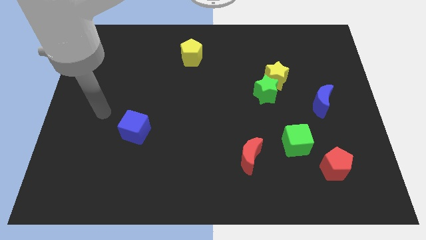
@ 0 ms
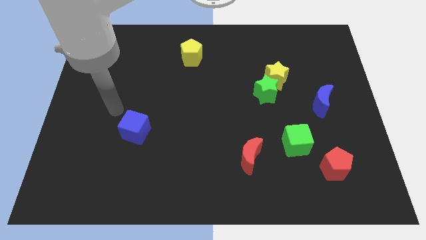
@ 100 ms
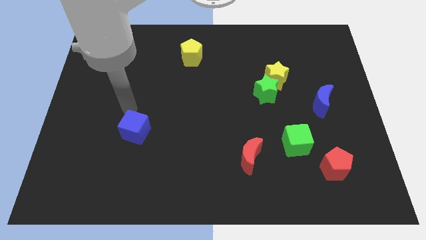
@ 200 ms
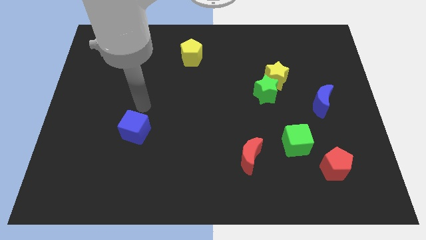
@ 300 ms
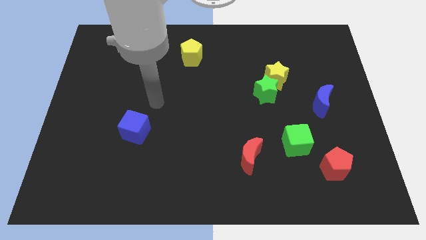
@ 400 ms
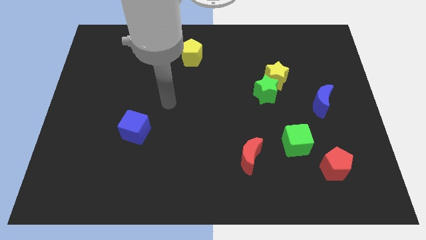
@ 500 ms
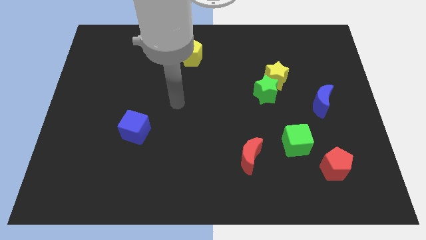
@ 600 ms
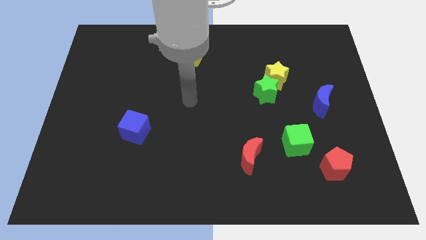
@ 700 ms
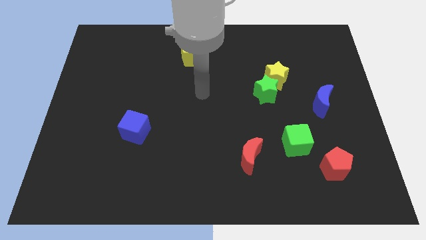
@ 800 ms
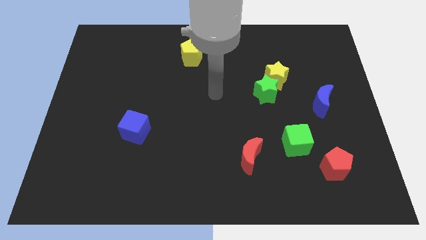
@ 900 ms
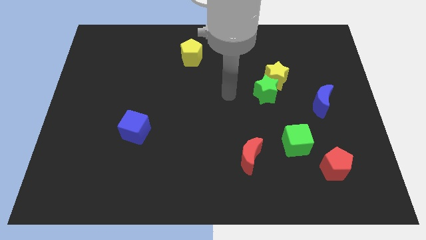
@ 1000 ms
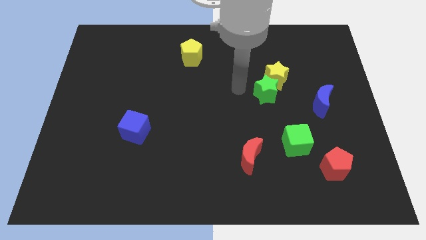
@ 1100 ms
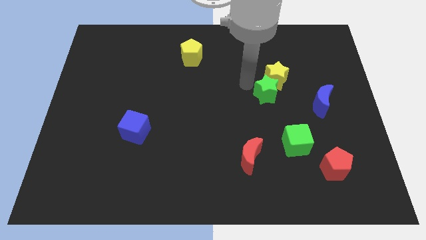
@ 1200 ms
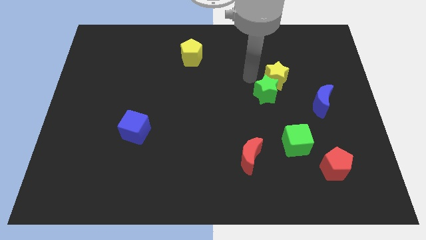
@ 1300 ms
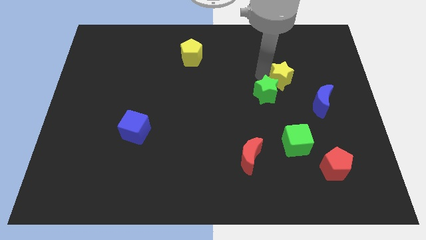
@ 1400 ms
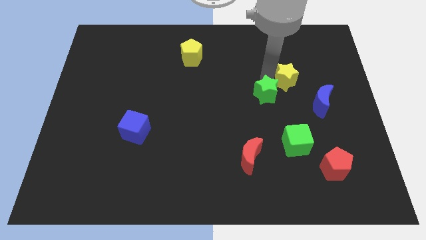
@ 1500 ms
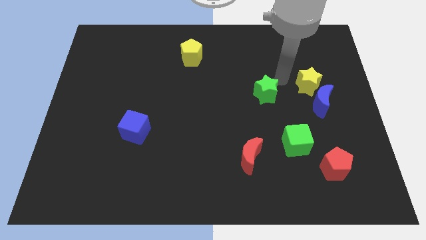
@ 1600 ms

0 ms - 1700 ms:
separate the green star from the yellow star

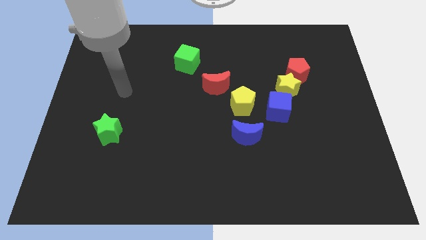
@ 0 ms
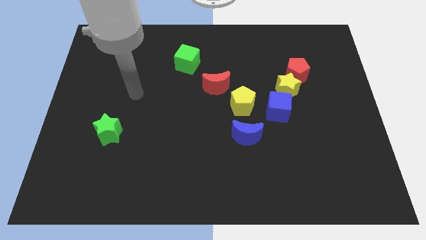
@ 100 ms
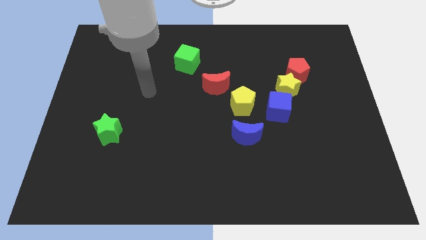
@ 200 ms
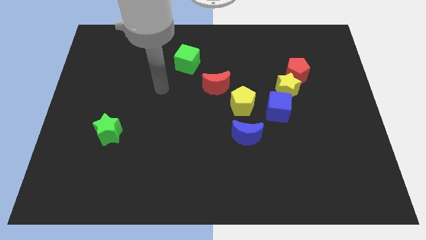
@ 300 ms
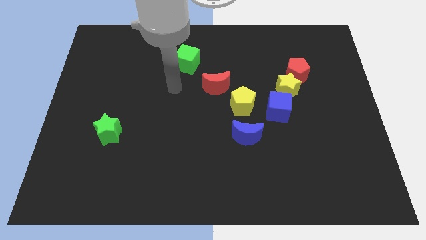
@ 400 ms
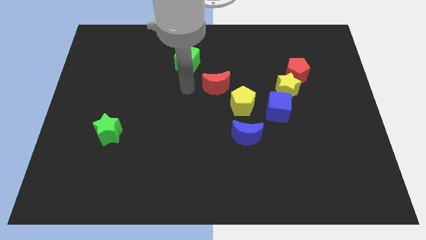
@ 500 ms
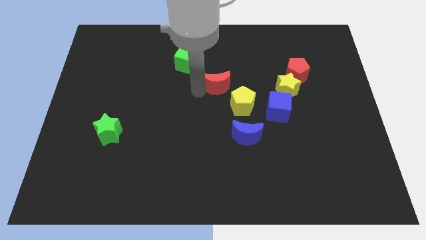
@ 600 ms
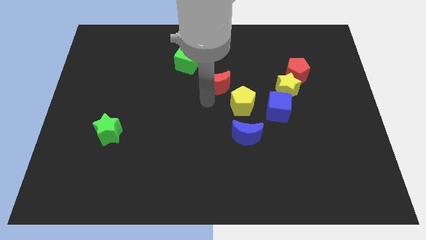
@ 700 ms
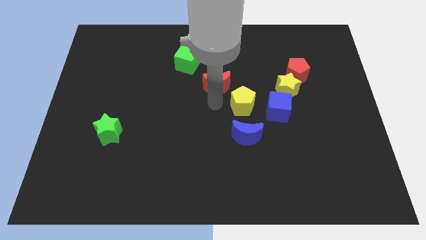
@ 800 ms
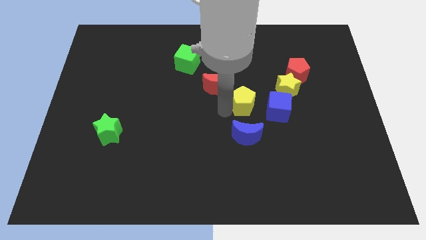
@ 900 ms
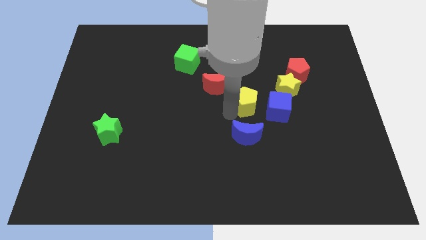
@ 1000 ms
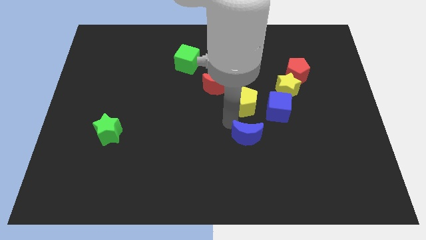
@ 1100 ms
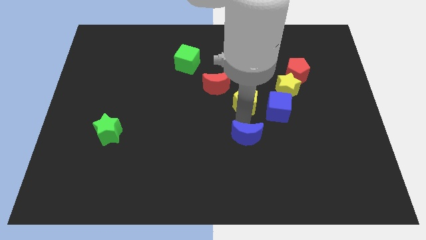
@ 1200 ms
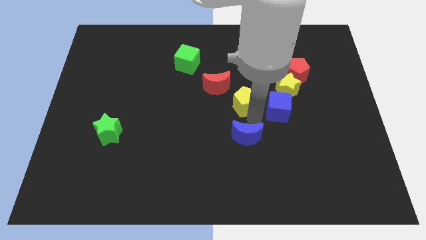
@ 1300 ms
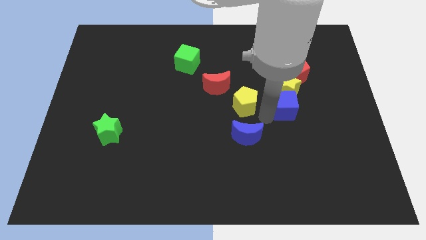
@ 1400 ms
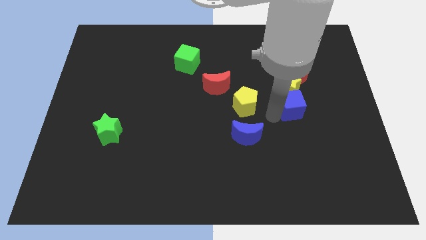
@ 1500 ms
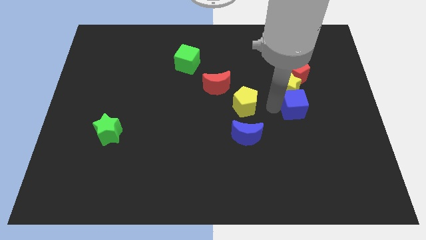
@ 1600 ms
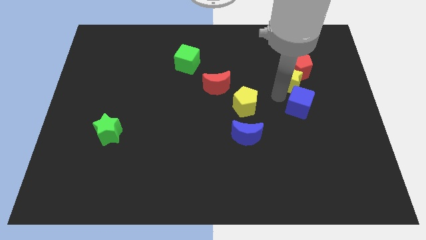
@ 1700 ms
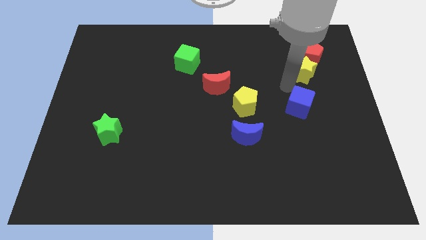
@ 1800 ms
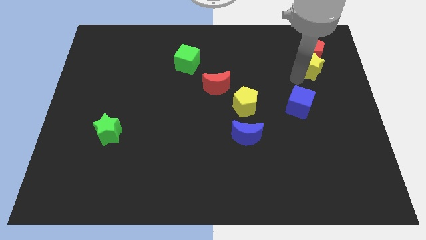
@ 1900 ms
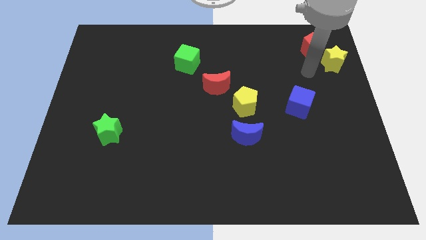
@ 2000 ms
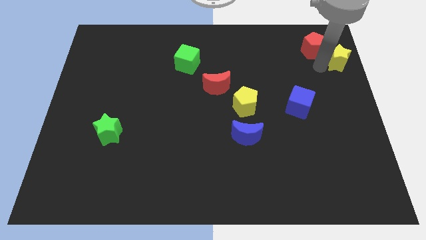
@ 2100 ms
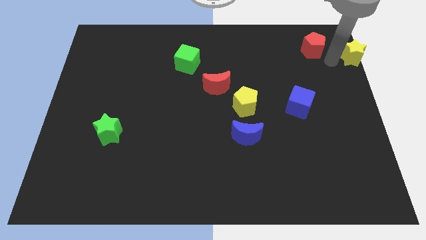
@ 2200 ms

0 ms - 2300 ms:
move the red pentagon away from the yellow star

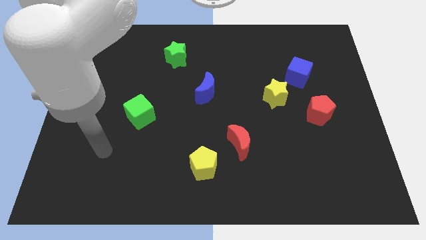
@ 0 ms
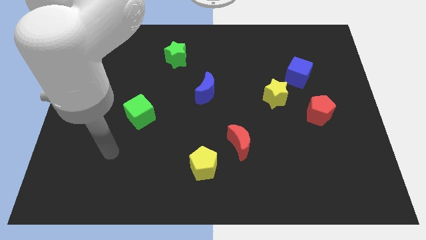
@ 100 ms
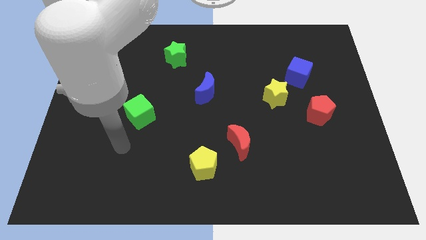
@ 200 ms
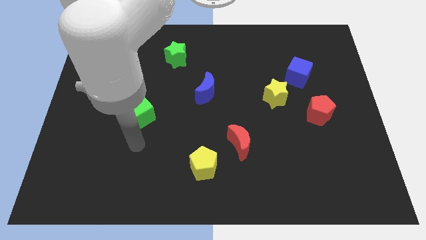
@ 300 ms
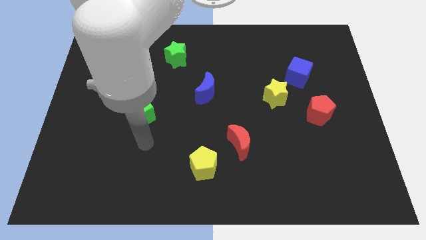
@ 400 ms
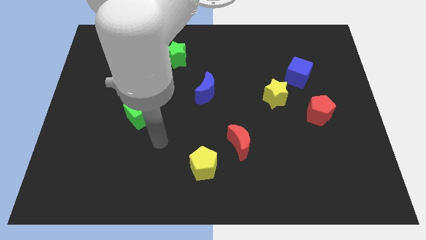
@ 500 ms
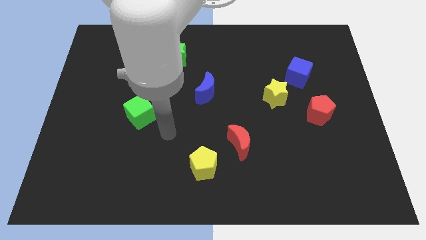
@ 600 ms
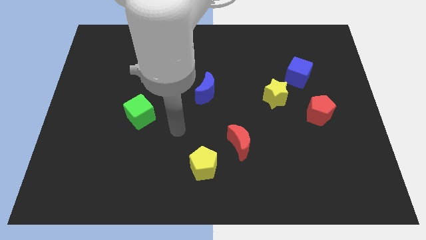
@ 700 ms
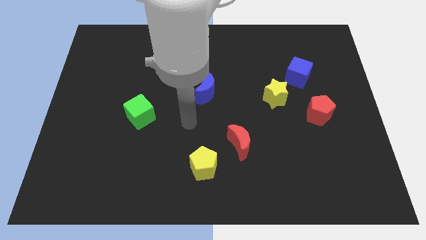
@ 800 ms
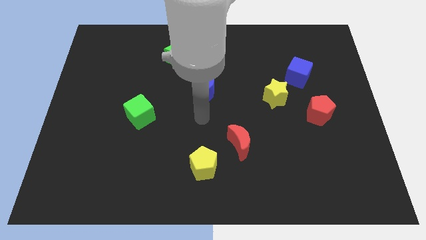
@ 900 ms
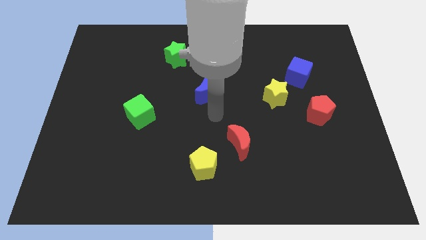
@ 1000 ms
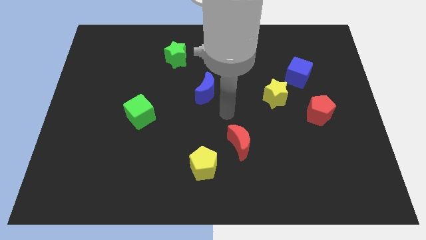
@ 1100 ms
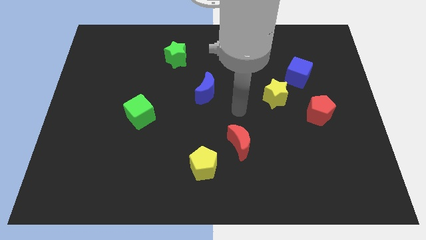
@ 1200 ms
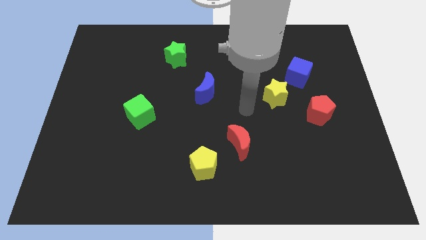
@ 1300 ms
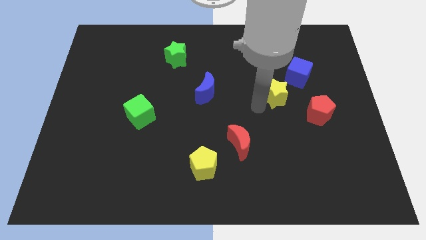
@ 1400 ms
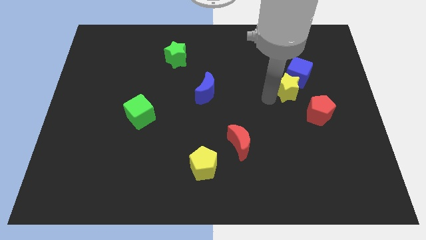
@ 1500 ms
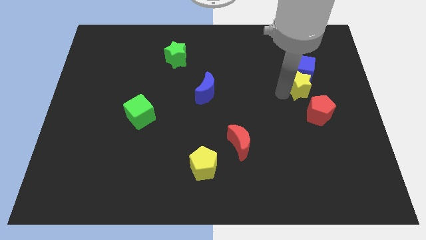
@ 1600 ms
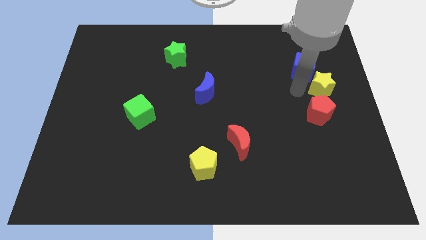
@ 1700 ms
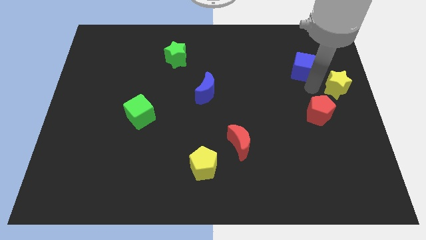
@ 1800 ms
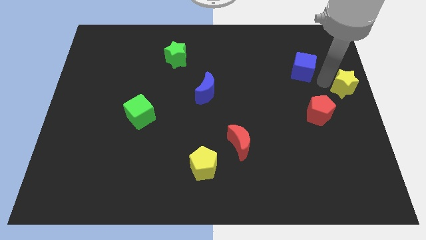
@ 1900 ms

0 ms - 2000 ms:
separate the blue cube from the yellow star

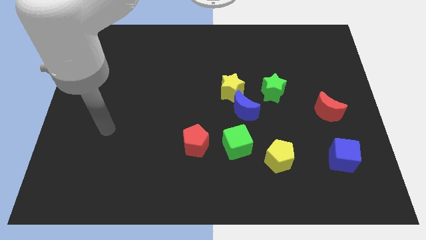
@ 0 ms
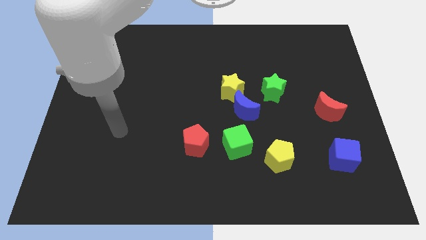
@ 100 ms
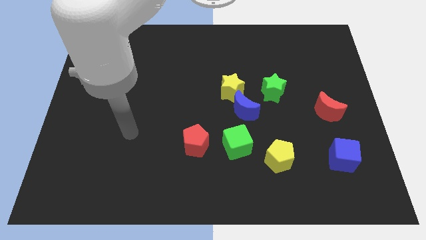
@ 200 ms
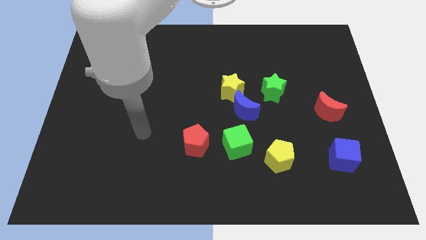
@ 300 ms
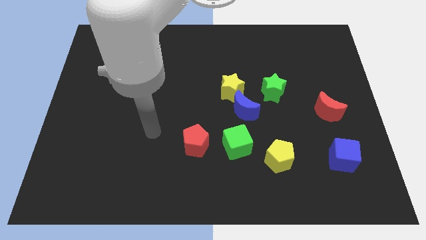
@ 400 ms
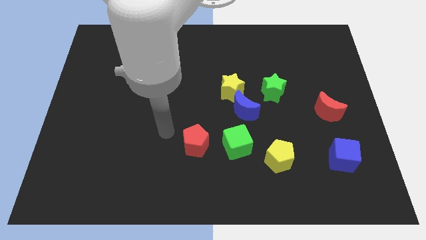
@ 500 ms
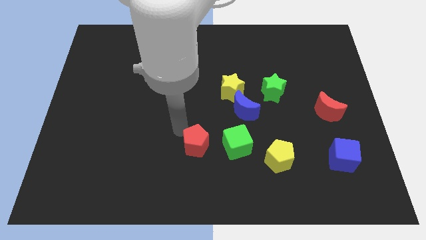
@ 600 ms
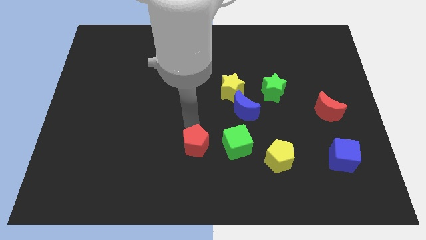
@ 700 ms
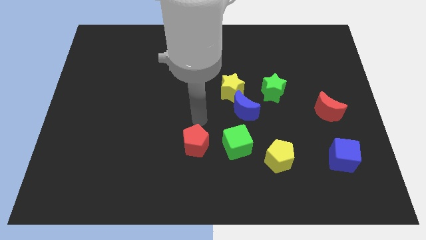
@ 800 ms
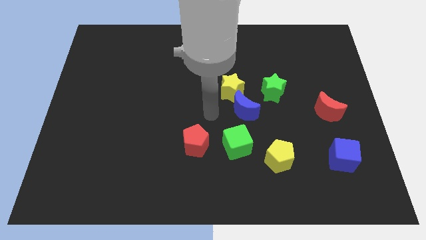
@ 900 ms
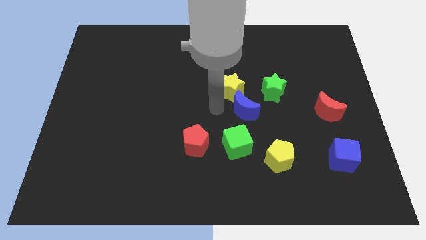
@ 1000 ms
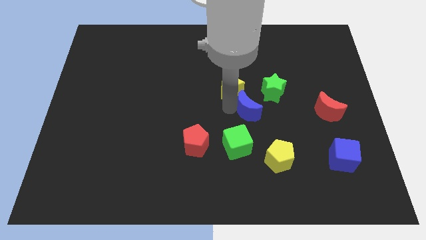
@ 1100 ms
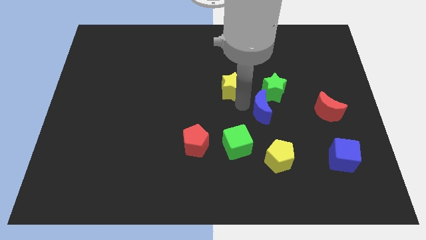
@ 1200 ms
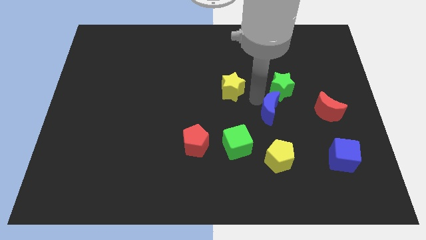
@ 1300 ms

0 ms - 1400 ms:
pull the yellow star apart from the blue moon and green star

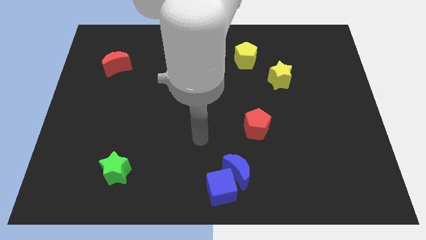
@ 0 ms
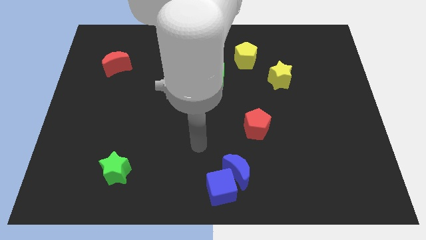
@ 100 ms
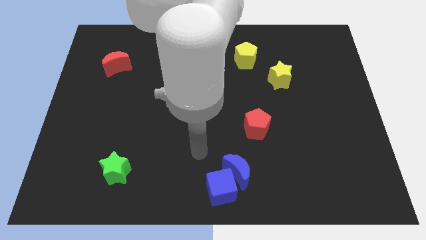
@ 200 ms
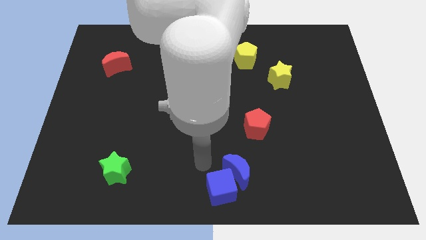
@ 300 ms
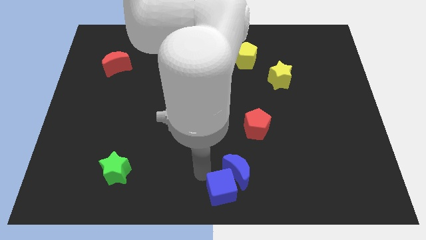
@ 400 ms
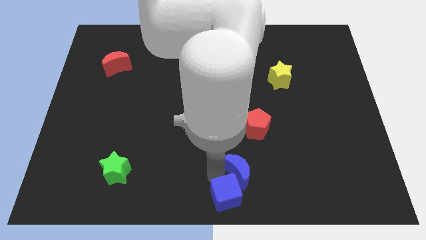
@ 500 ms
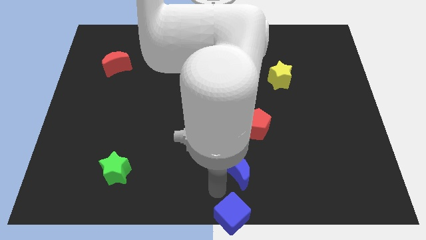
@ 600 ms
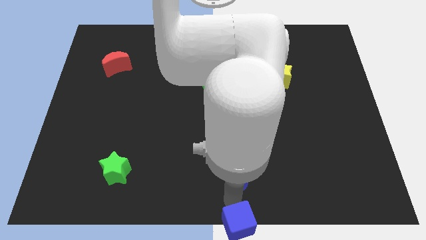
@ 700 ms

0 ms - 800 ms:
move the blue moon away from the blue cube

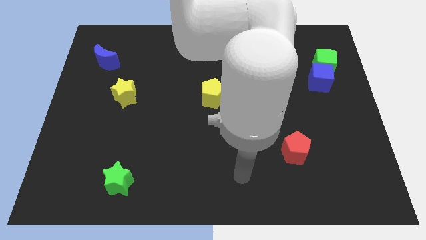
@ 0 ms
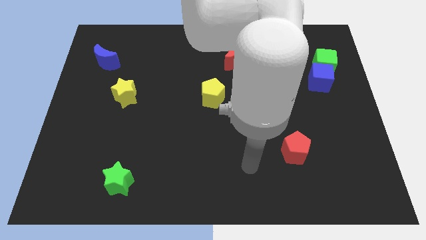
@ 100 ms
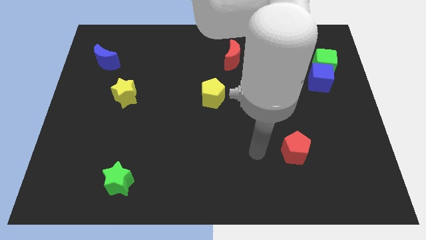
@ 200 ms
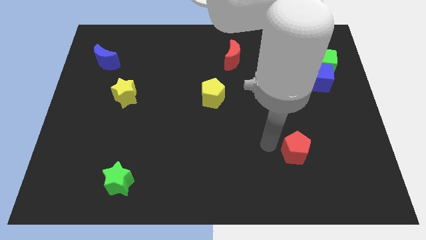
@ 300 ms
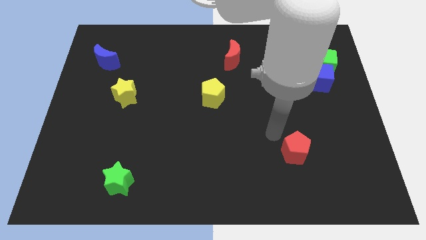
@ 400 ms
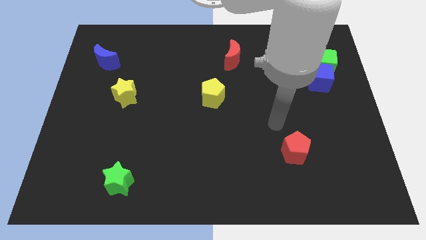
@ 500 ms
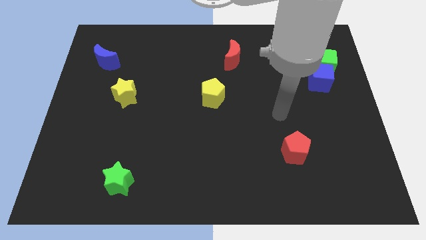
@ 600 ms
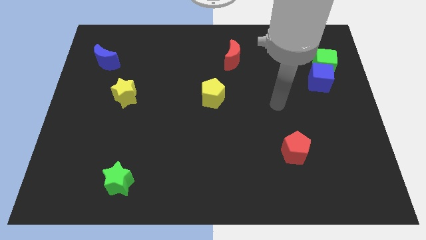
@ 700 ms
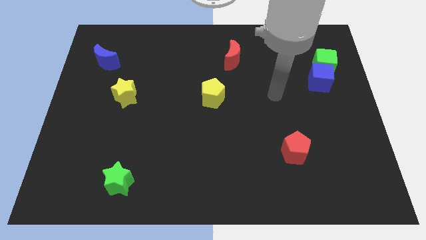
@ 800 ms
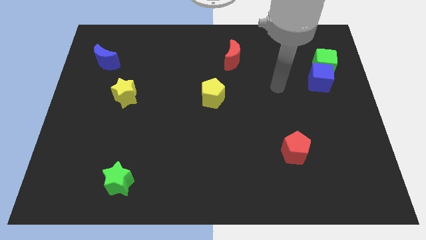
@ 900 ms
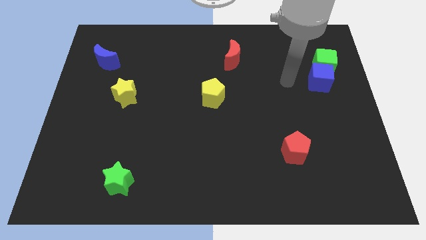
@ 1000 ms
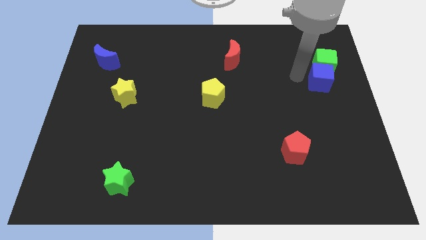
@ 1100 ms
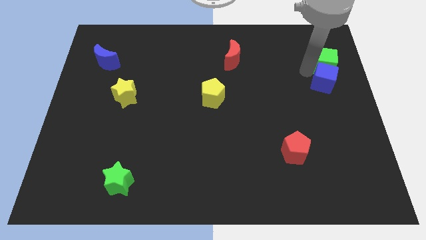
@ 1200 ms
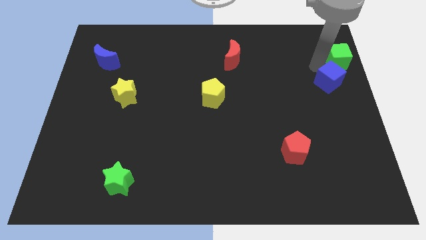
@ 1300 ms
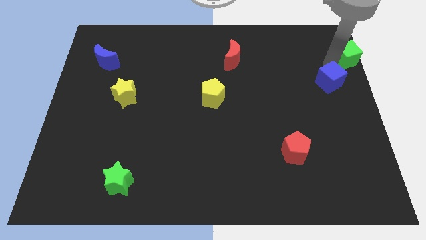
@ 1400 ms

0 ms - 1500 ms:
separate the blue cube from the green cube
